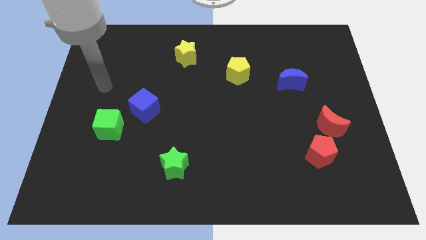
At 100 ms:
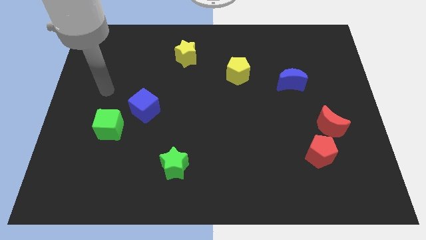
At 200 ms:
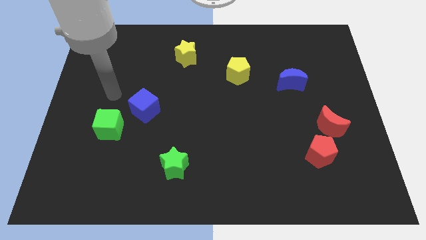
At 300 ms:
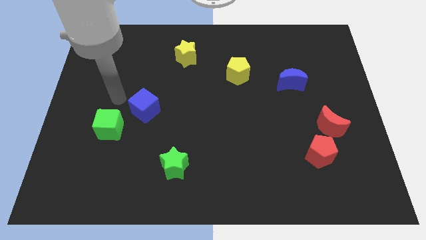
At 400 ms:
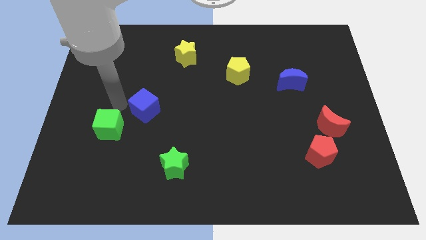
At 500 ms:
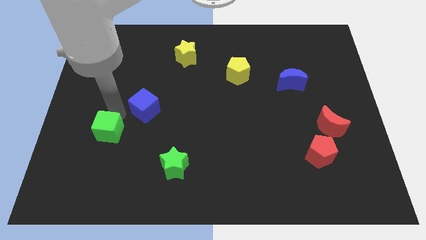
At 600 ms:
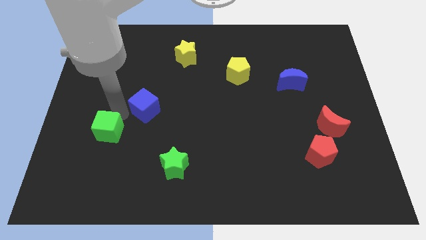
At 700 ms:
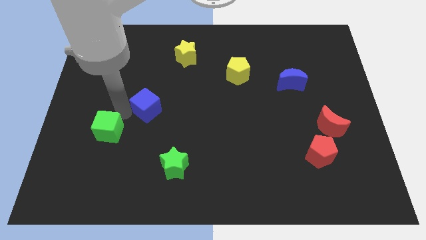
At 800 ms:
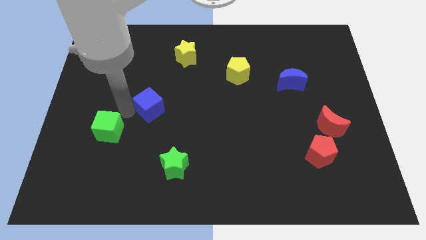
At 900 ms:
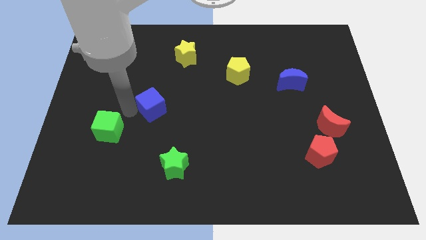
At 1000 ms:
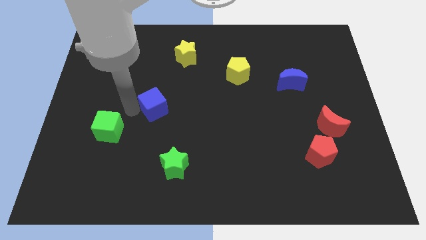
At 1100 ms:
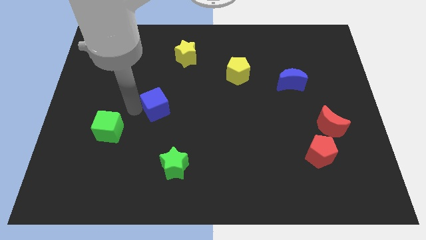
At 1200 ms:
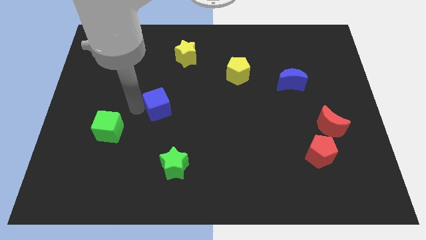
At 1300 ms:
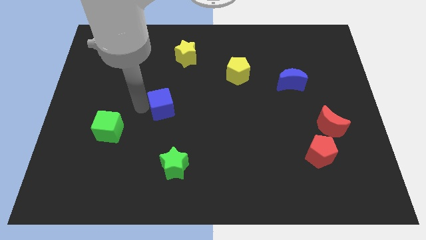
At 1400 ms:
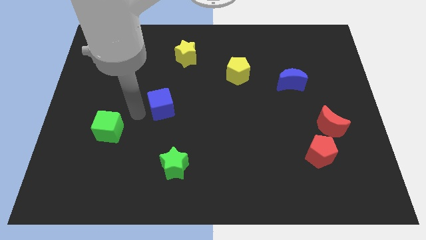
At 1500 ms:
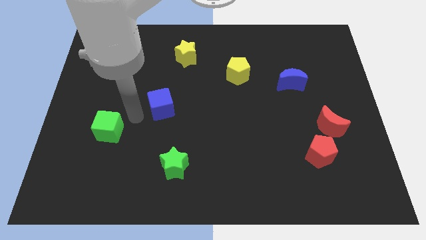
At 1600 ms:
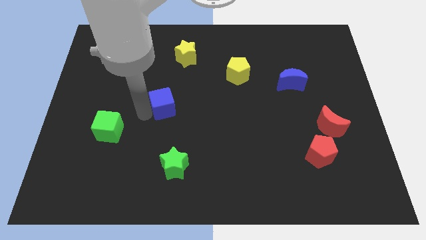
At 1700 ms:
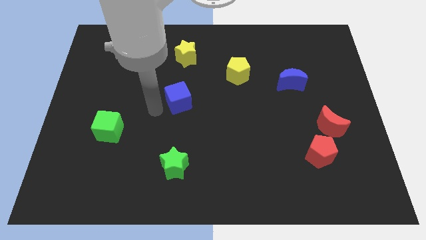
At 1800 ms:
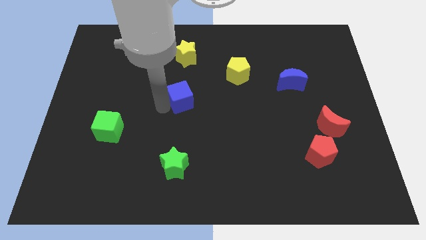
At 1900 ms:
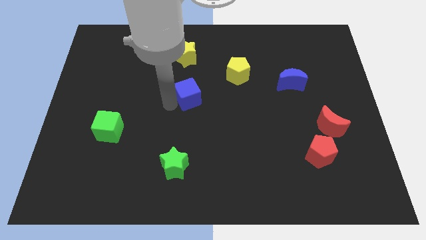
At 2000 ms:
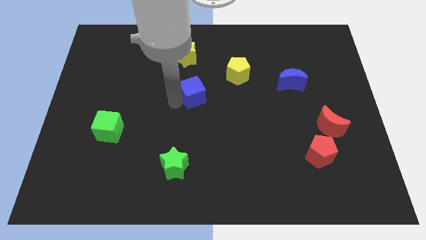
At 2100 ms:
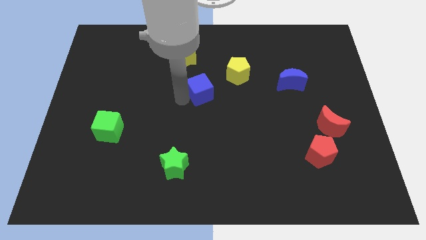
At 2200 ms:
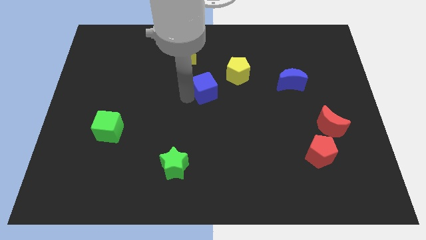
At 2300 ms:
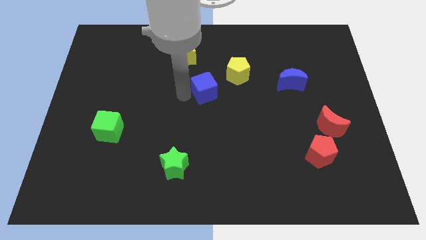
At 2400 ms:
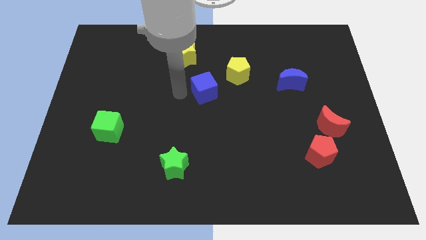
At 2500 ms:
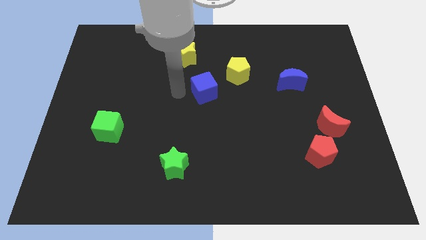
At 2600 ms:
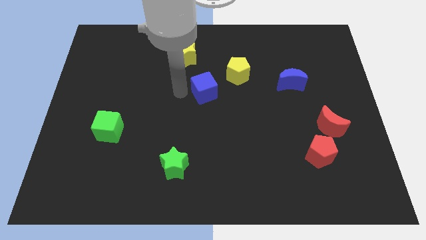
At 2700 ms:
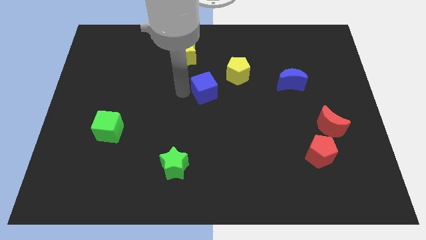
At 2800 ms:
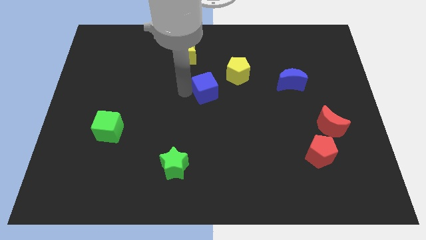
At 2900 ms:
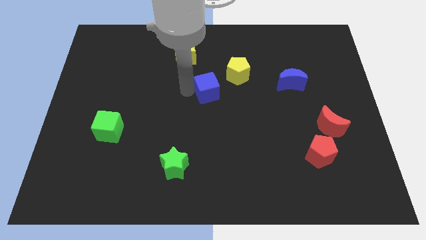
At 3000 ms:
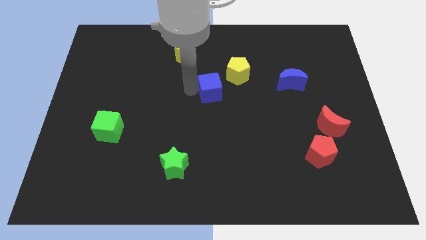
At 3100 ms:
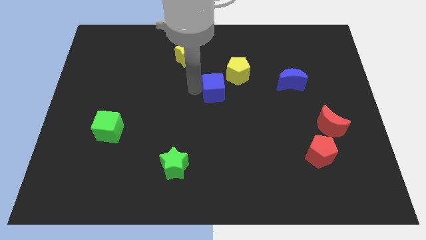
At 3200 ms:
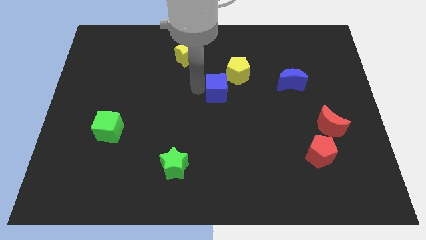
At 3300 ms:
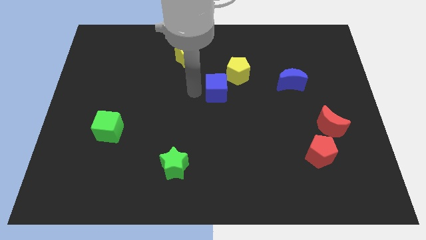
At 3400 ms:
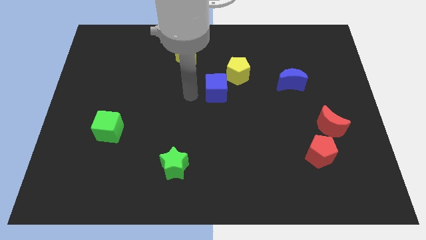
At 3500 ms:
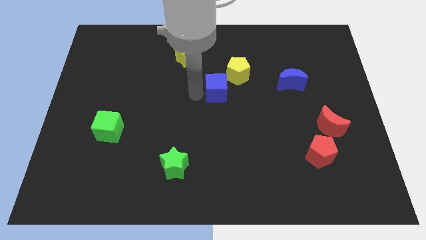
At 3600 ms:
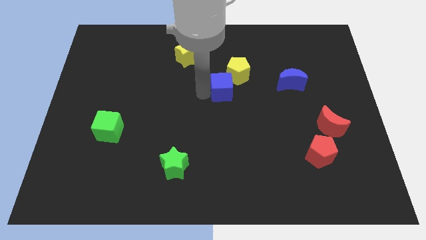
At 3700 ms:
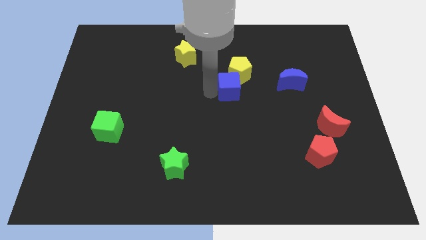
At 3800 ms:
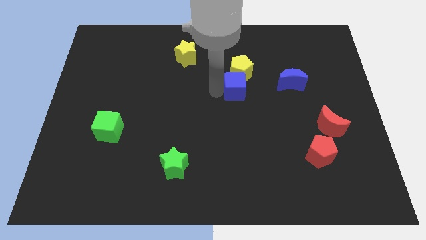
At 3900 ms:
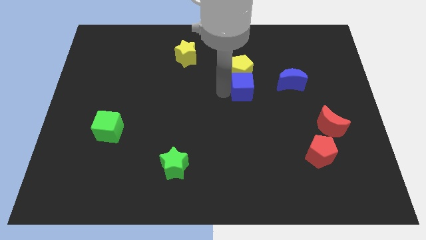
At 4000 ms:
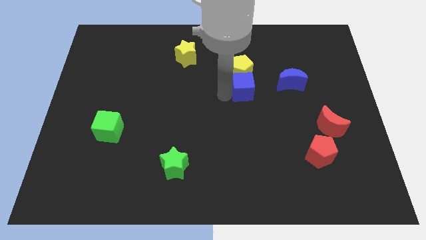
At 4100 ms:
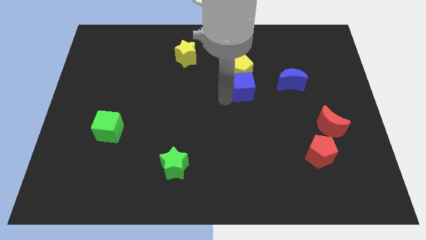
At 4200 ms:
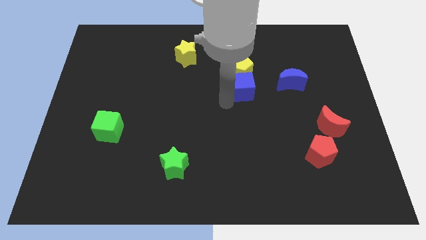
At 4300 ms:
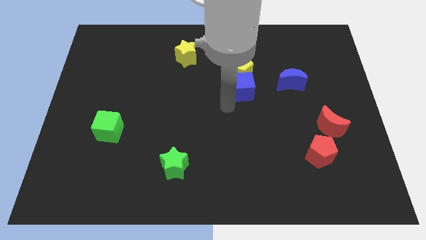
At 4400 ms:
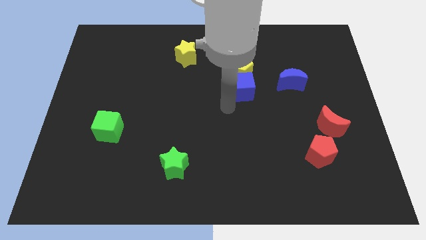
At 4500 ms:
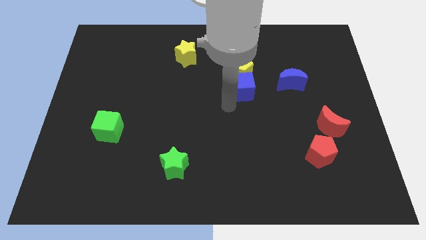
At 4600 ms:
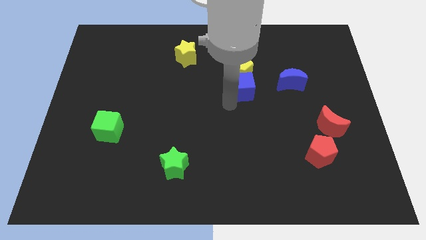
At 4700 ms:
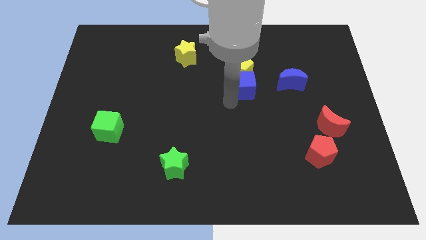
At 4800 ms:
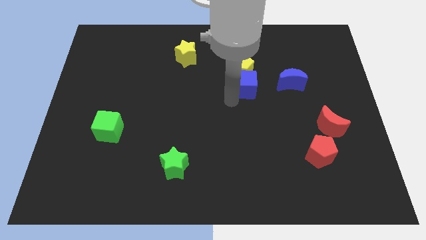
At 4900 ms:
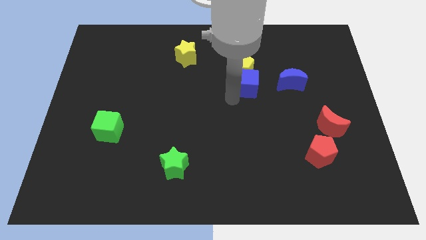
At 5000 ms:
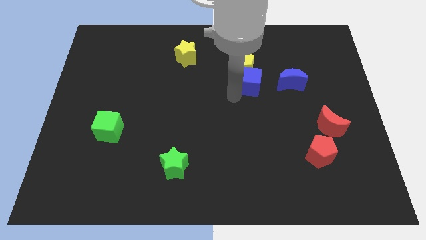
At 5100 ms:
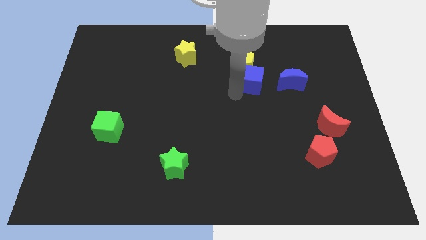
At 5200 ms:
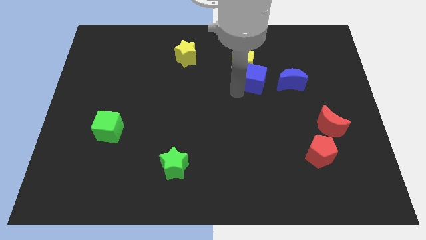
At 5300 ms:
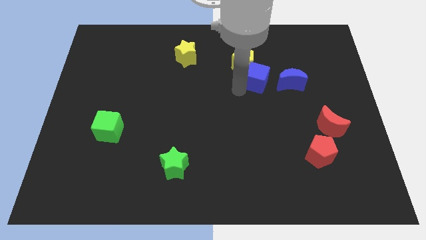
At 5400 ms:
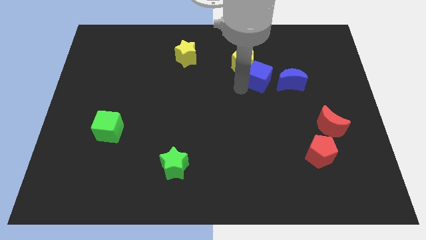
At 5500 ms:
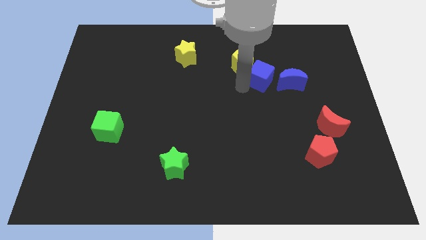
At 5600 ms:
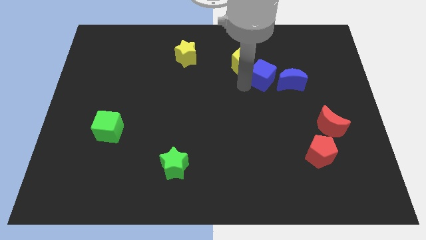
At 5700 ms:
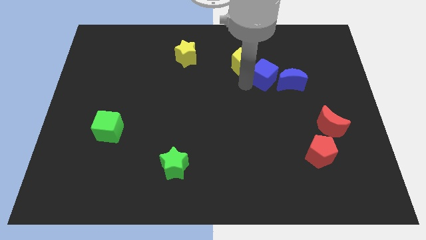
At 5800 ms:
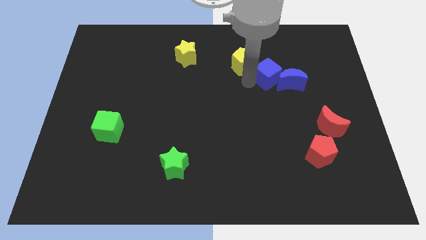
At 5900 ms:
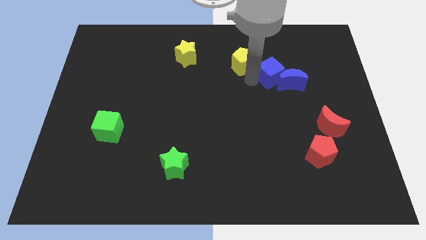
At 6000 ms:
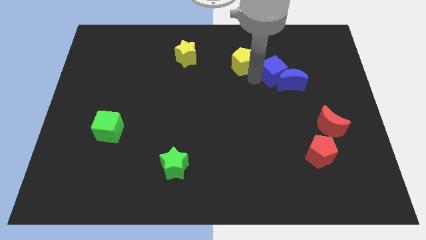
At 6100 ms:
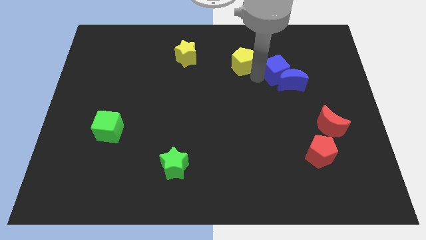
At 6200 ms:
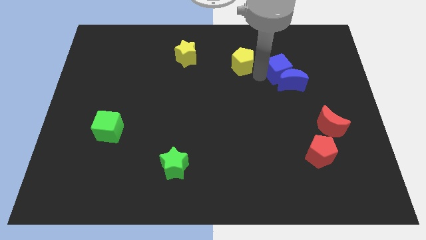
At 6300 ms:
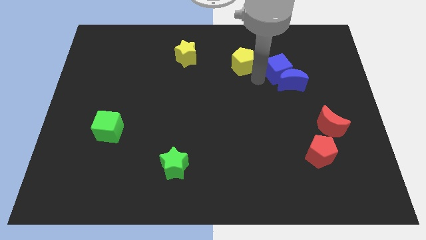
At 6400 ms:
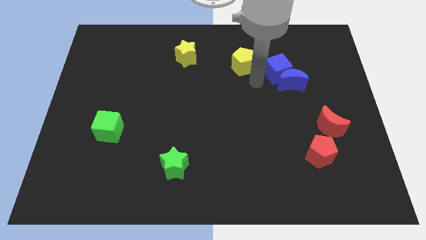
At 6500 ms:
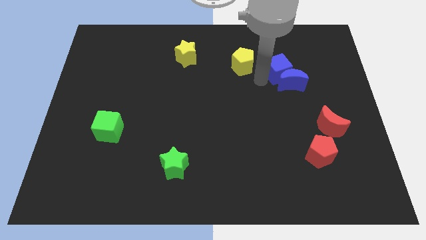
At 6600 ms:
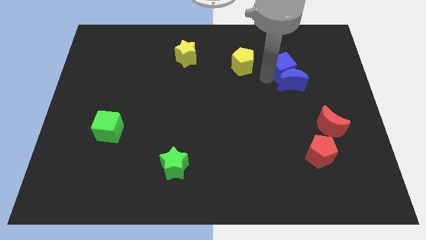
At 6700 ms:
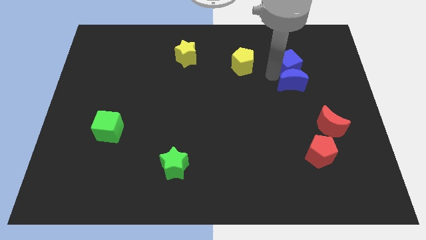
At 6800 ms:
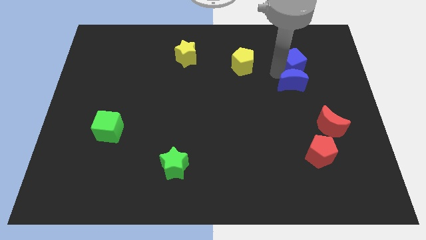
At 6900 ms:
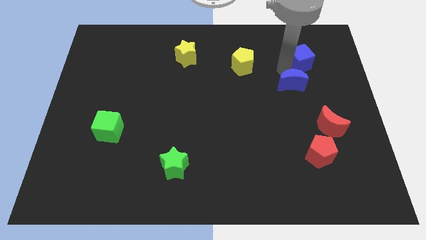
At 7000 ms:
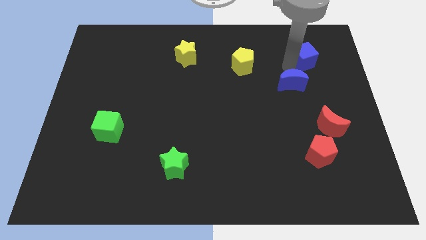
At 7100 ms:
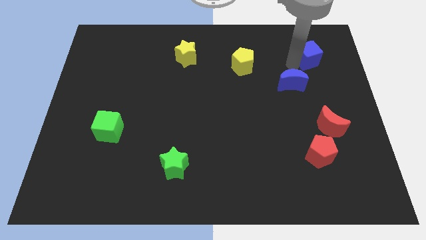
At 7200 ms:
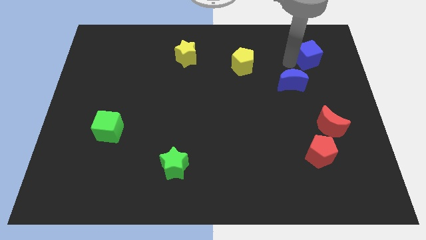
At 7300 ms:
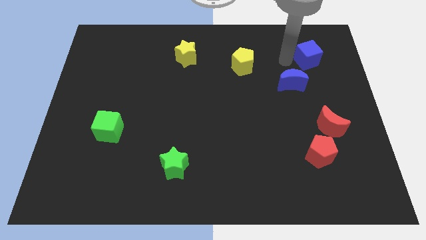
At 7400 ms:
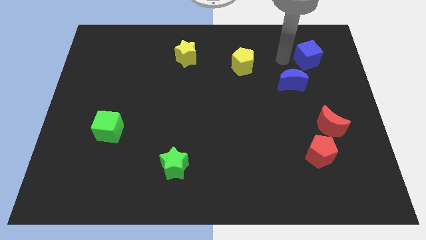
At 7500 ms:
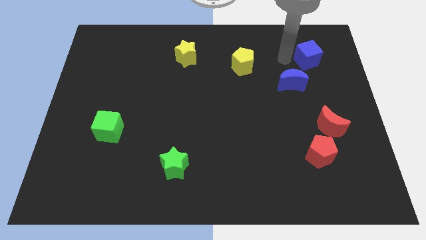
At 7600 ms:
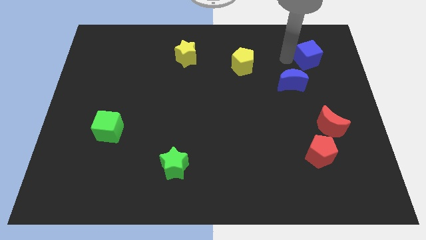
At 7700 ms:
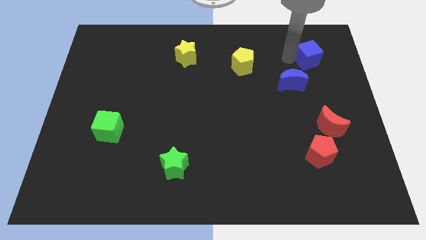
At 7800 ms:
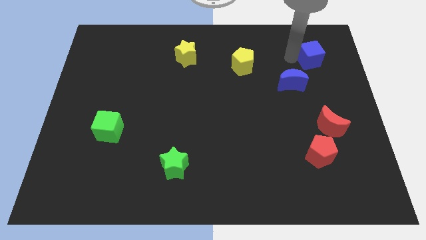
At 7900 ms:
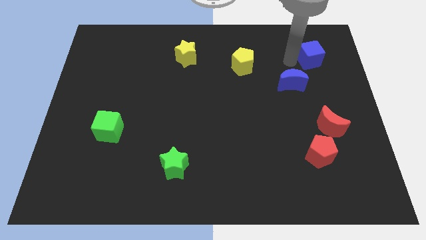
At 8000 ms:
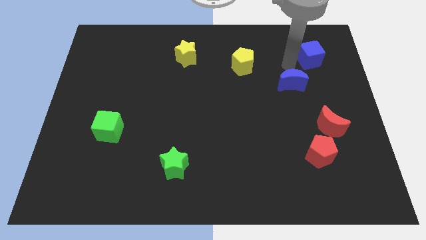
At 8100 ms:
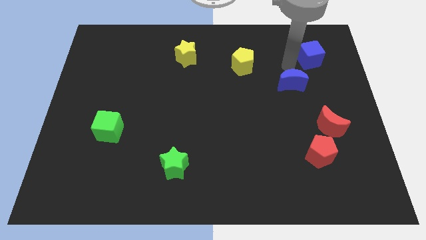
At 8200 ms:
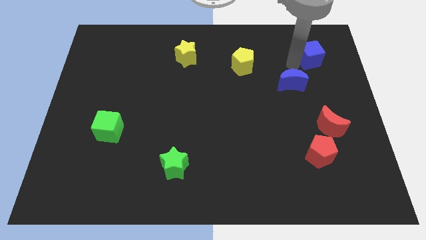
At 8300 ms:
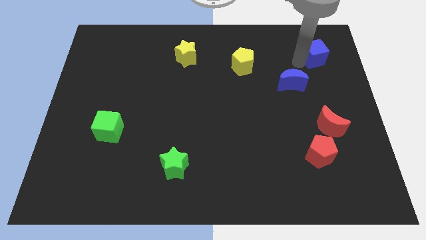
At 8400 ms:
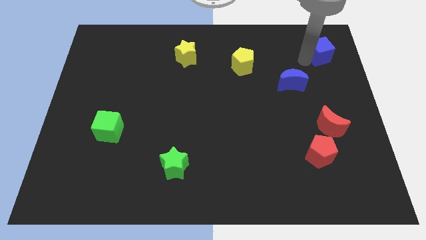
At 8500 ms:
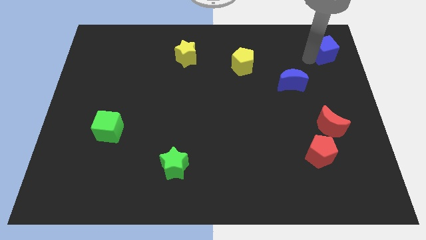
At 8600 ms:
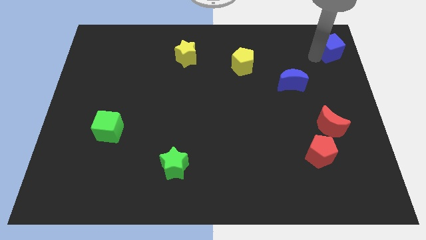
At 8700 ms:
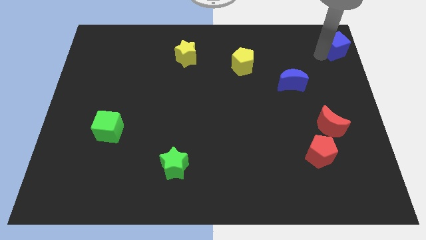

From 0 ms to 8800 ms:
push the blue cube to the upper right corner
